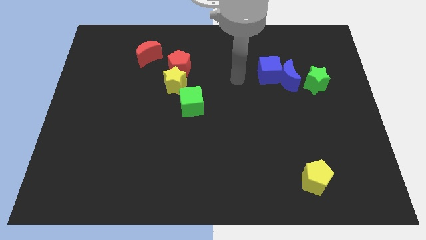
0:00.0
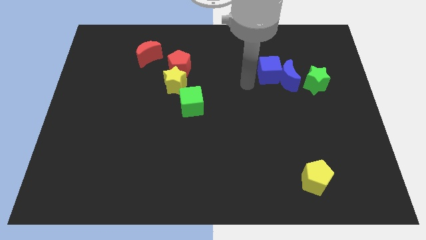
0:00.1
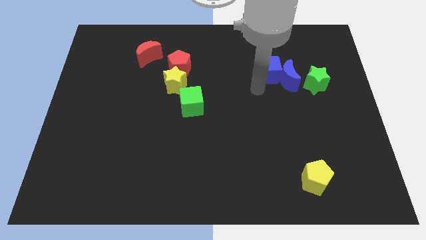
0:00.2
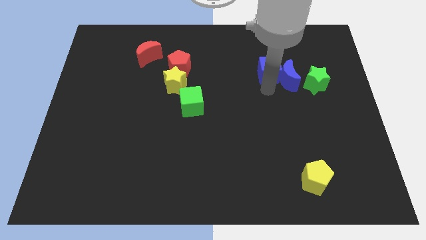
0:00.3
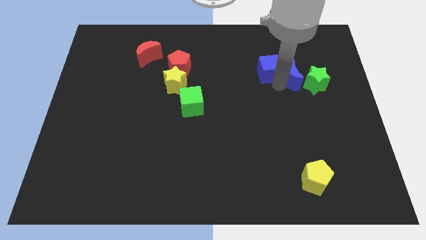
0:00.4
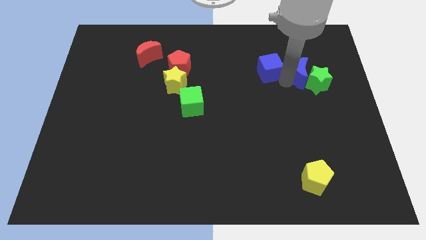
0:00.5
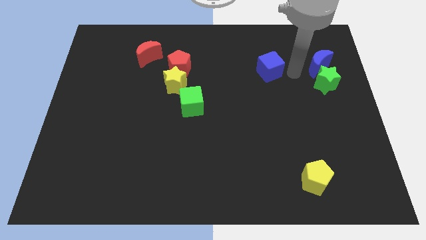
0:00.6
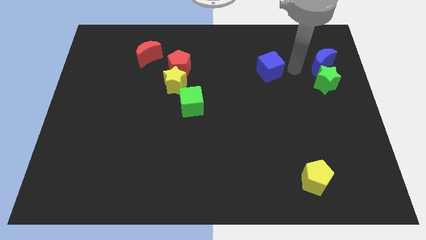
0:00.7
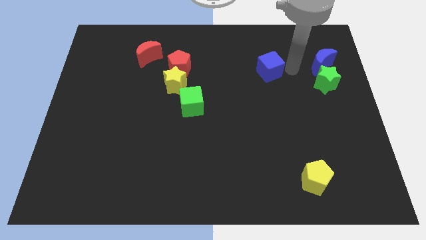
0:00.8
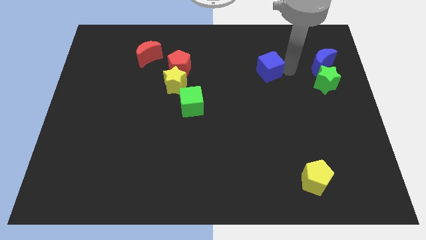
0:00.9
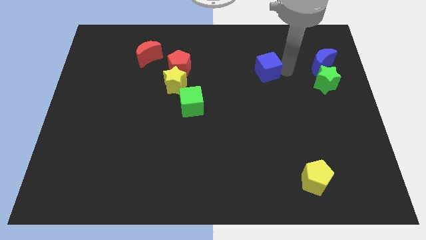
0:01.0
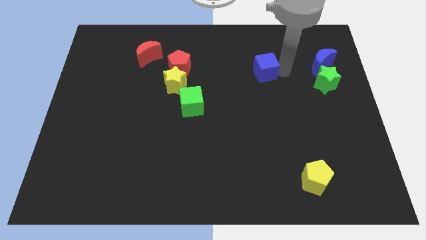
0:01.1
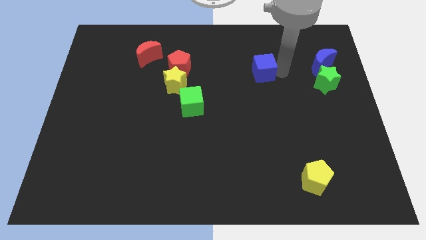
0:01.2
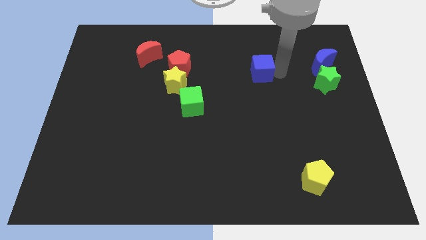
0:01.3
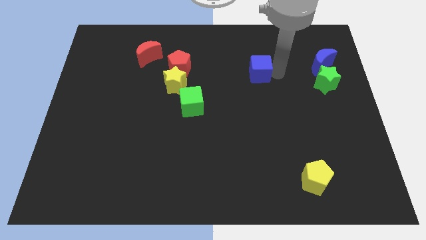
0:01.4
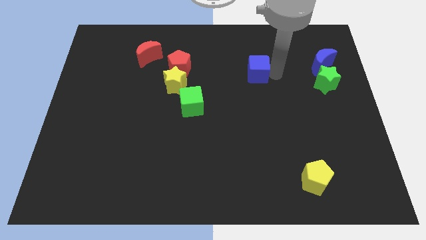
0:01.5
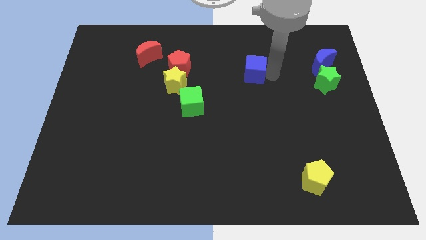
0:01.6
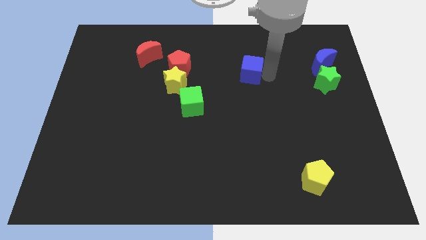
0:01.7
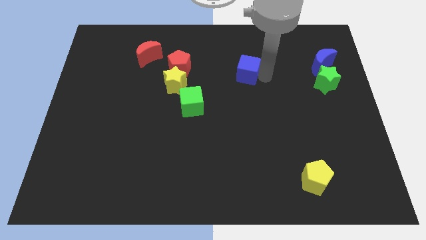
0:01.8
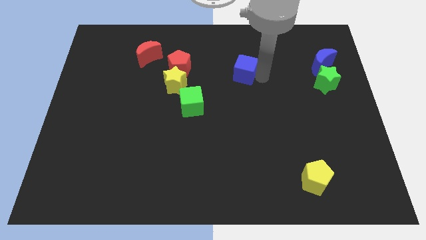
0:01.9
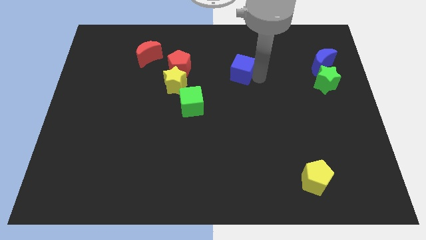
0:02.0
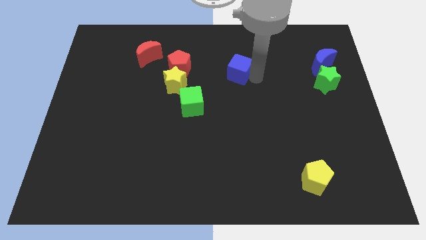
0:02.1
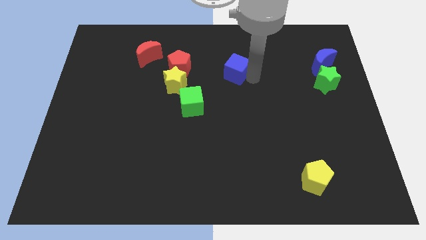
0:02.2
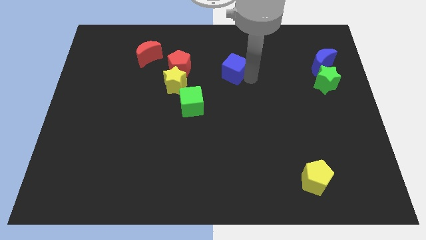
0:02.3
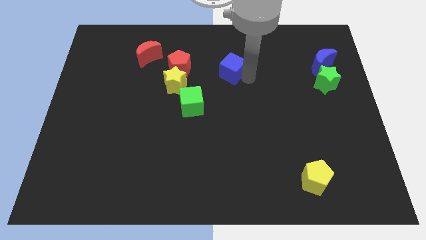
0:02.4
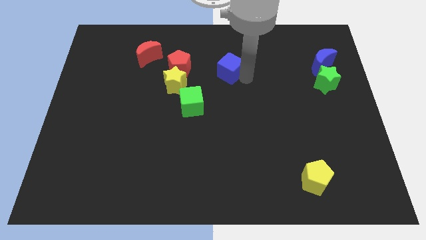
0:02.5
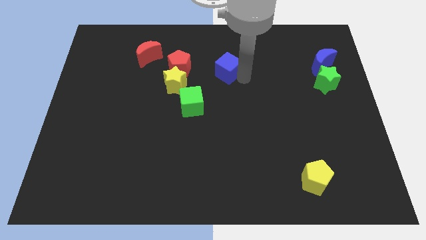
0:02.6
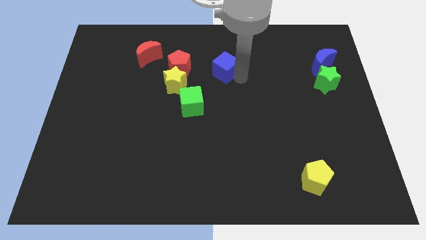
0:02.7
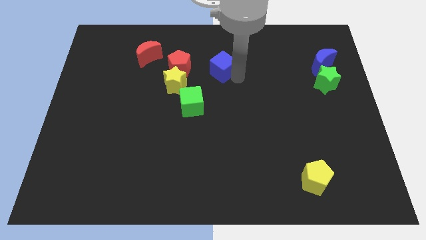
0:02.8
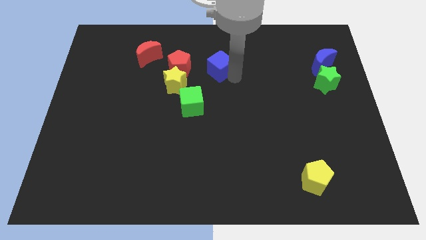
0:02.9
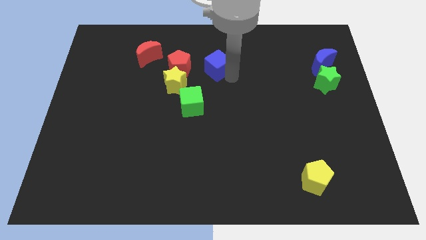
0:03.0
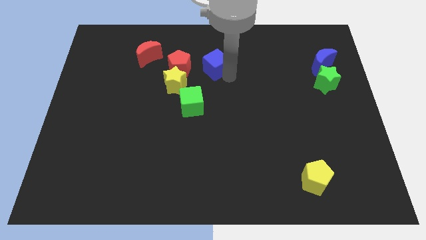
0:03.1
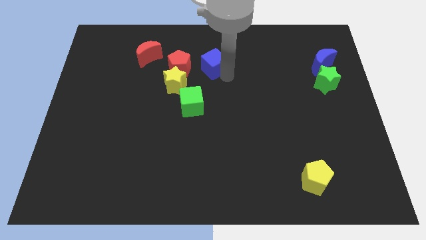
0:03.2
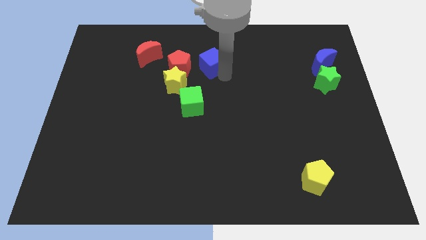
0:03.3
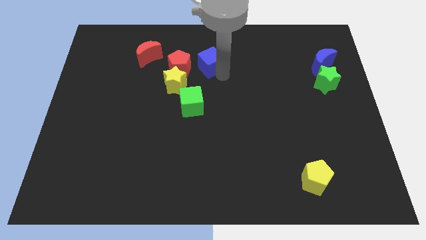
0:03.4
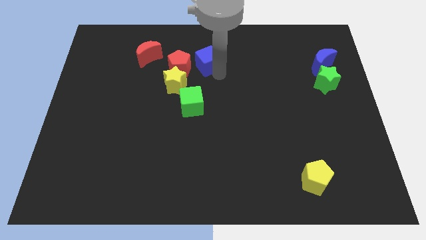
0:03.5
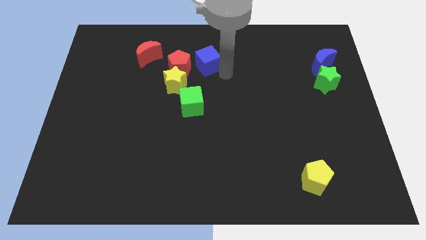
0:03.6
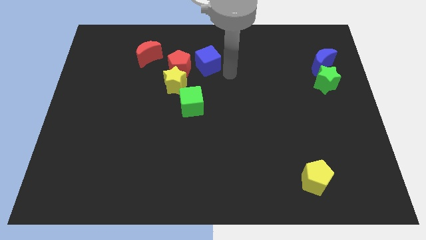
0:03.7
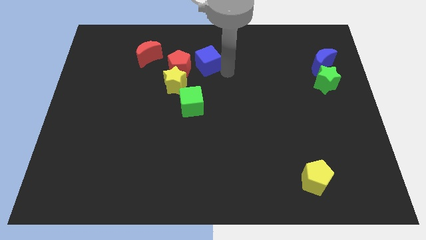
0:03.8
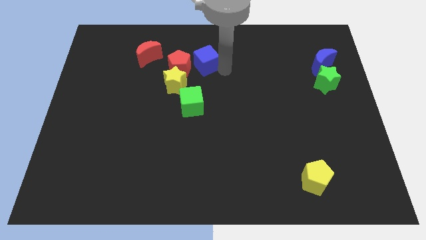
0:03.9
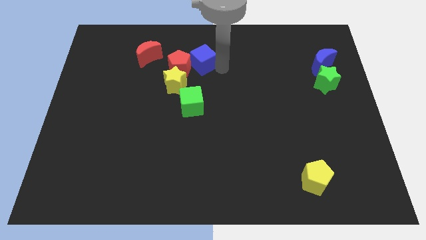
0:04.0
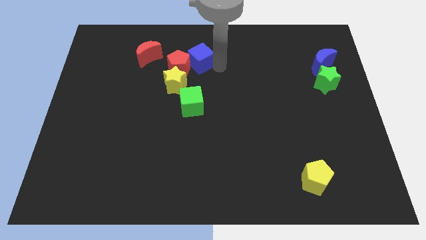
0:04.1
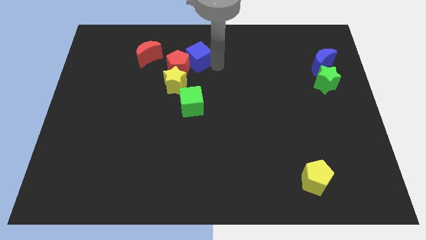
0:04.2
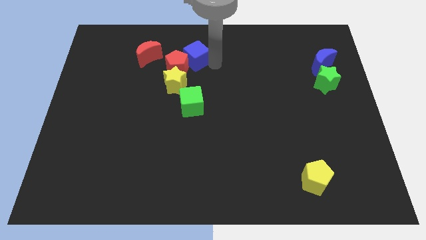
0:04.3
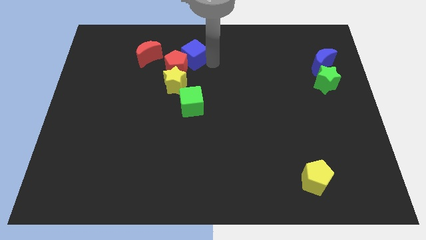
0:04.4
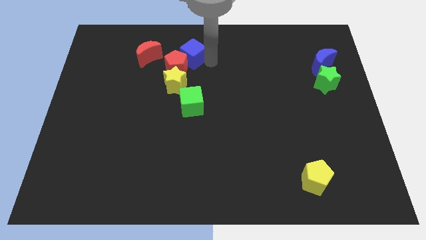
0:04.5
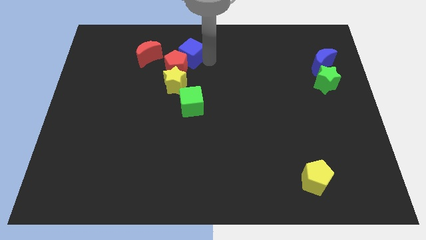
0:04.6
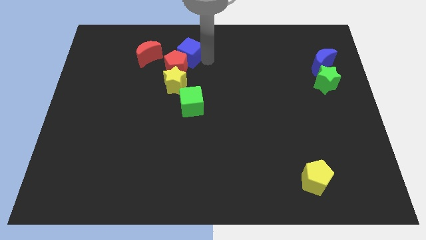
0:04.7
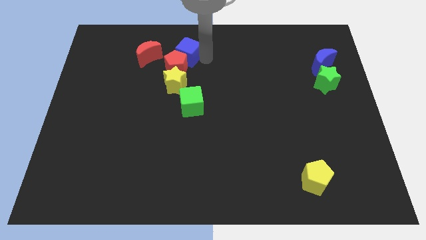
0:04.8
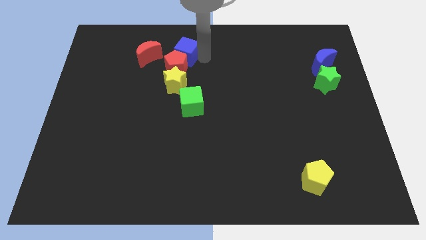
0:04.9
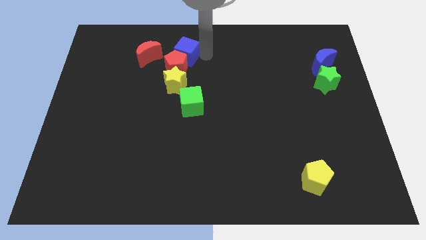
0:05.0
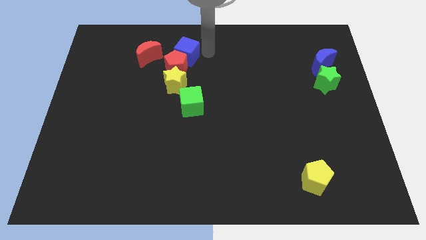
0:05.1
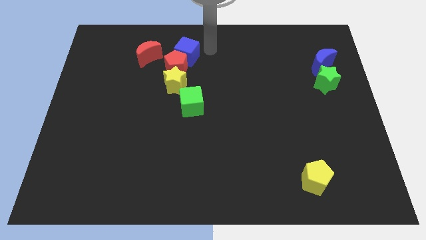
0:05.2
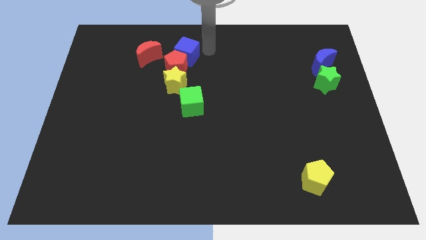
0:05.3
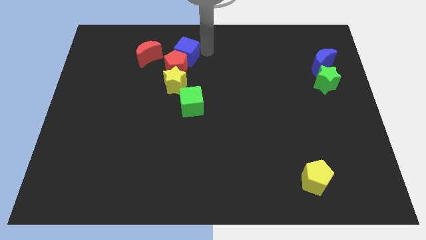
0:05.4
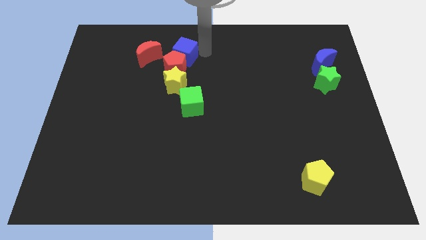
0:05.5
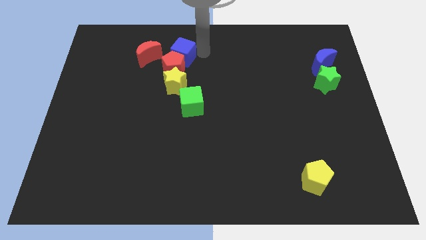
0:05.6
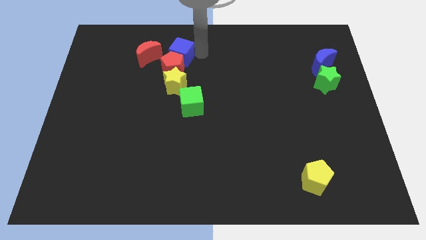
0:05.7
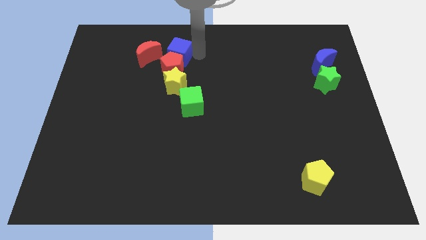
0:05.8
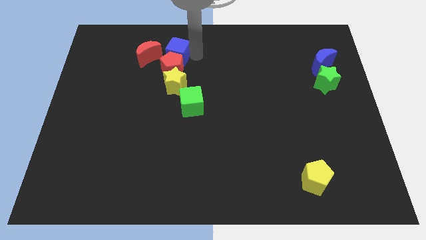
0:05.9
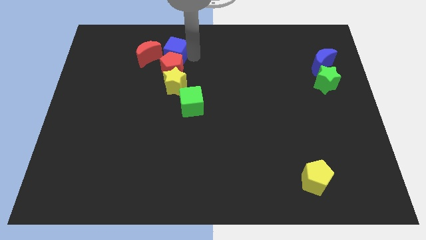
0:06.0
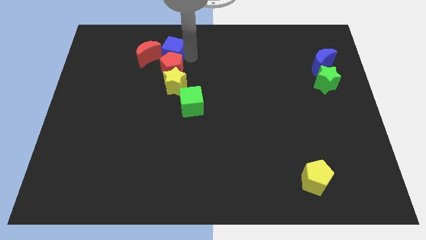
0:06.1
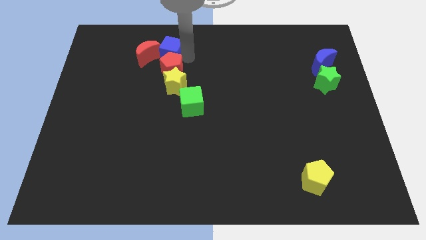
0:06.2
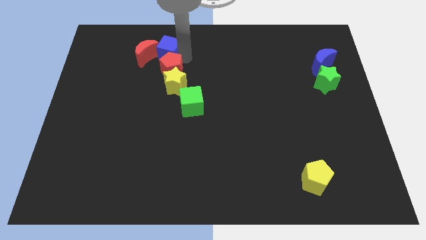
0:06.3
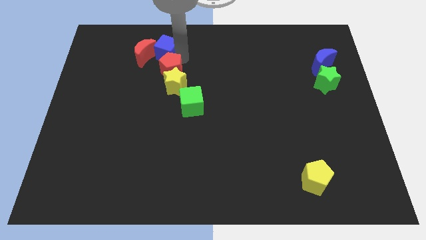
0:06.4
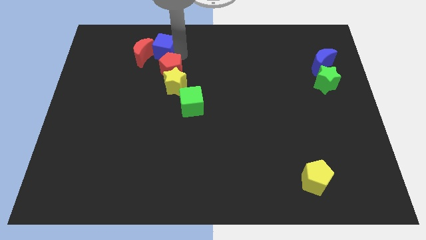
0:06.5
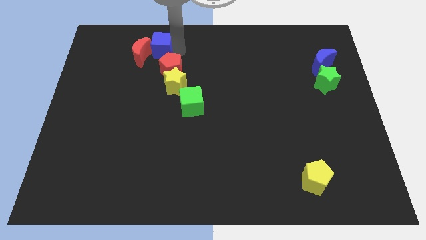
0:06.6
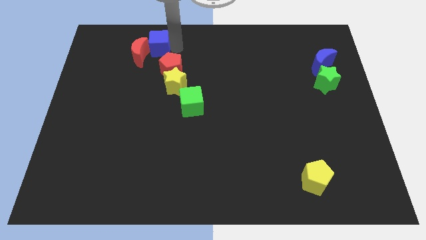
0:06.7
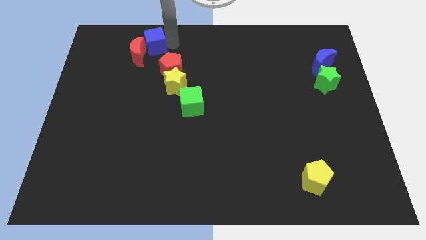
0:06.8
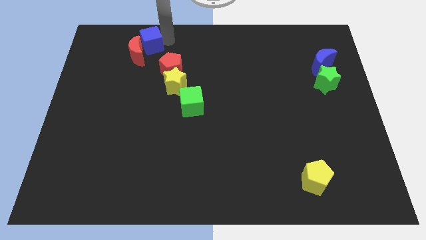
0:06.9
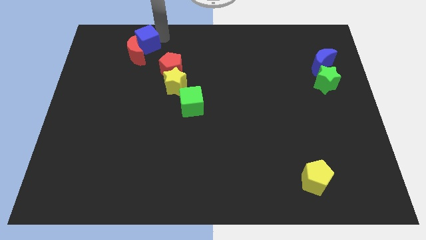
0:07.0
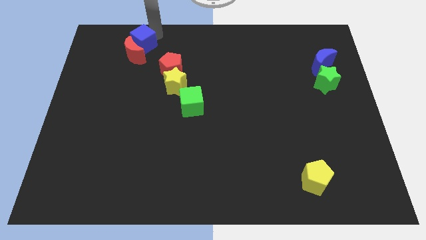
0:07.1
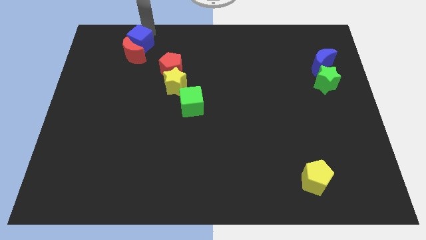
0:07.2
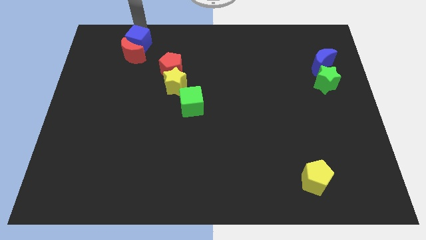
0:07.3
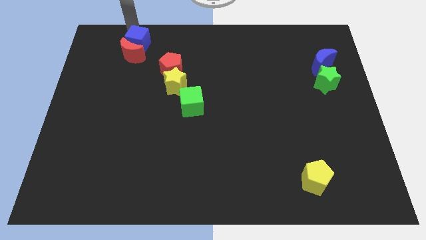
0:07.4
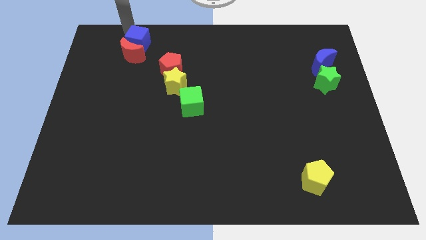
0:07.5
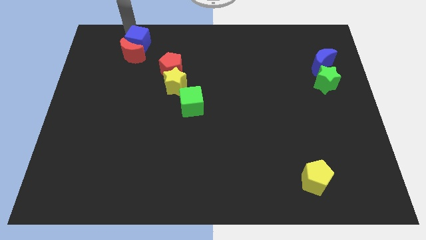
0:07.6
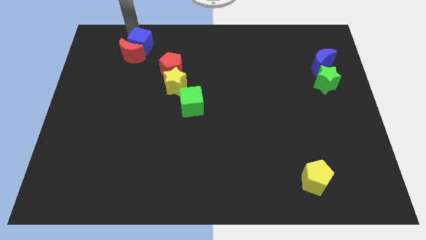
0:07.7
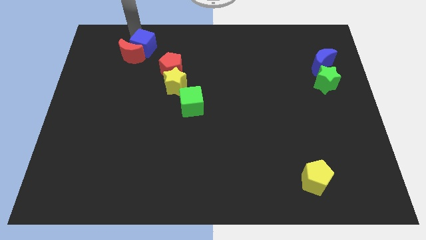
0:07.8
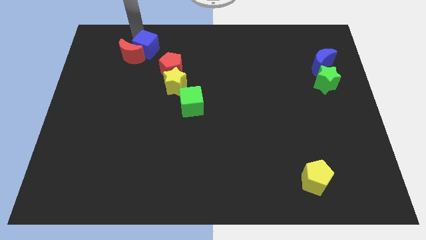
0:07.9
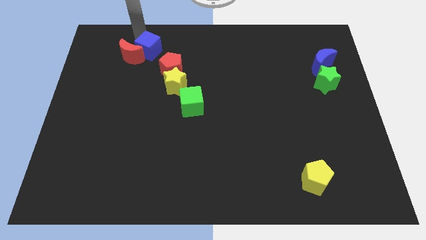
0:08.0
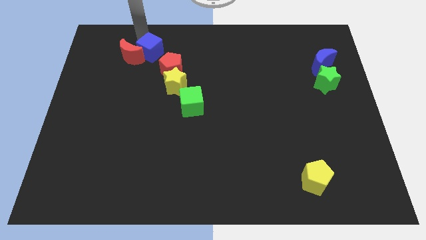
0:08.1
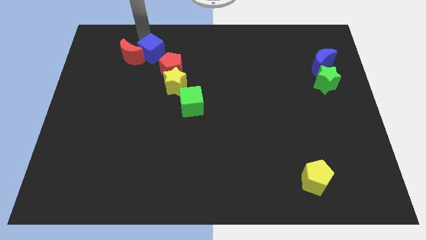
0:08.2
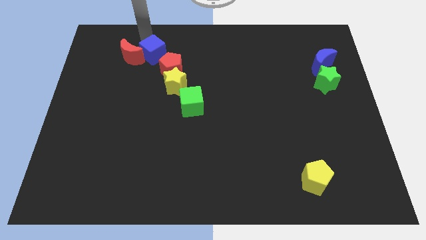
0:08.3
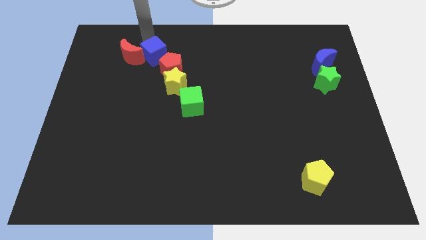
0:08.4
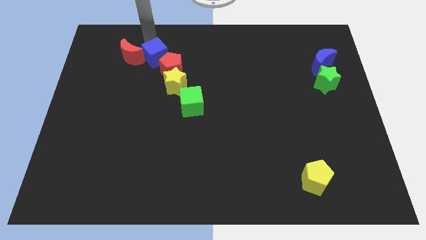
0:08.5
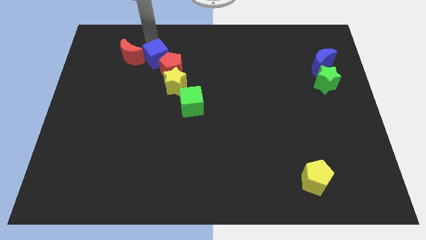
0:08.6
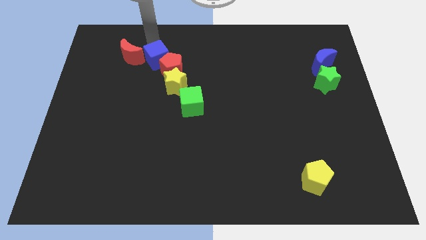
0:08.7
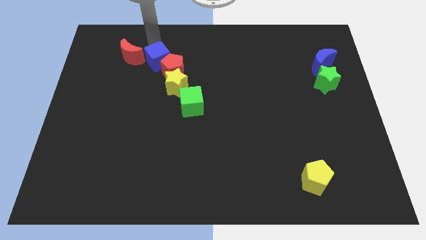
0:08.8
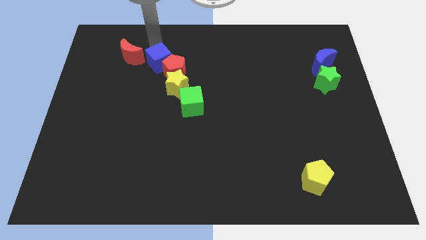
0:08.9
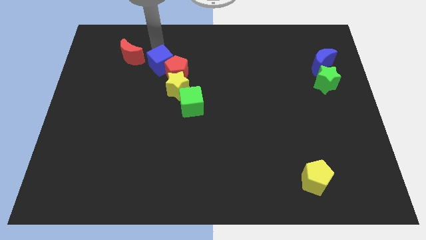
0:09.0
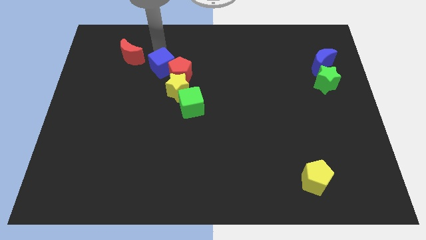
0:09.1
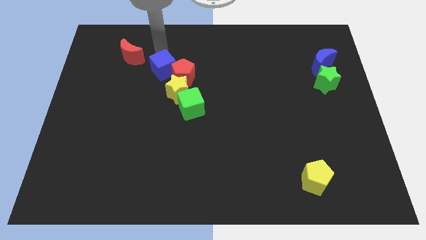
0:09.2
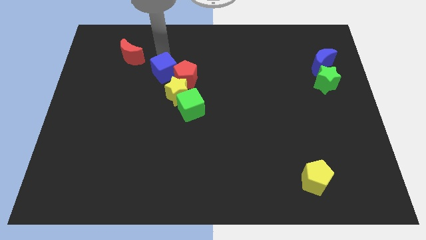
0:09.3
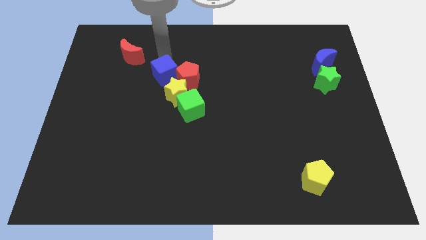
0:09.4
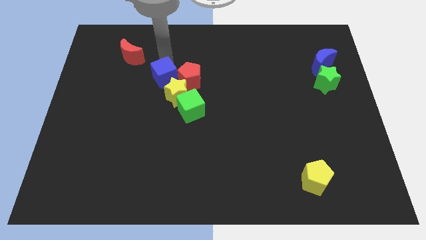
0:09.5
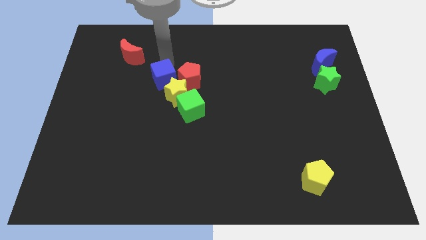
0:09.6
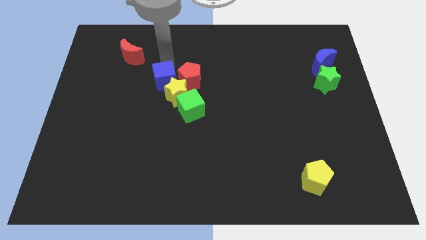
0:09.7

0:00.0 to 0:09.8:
put the blue cube to the bottom left of the red pentagon
